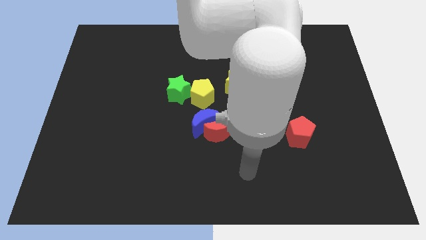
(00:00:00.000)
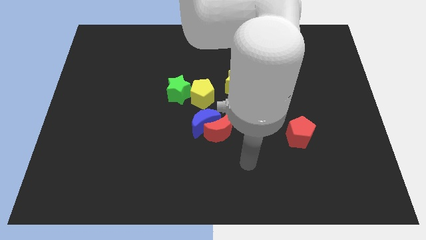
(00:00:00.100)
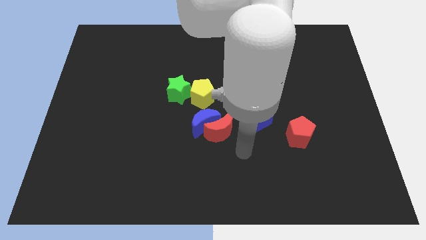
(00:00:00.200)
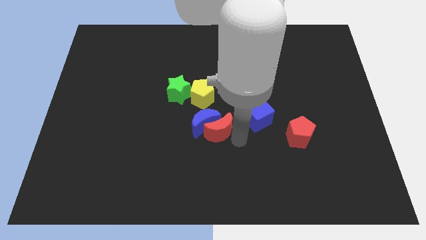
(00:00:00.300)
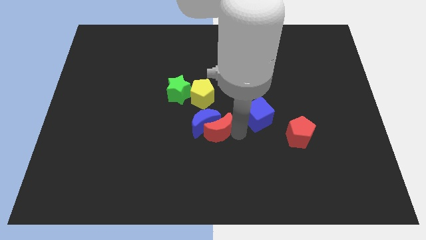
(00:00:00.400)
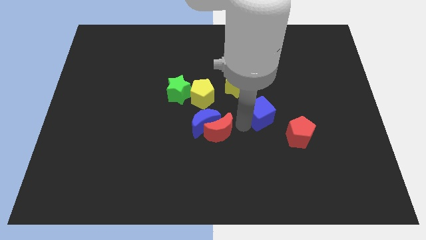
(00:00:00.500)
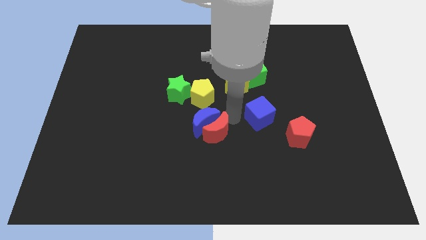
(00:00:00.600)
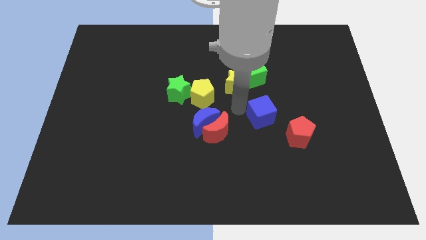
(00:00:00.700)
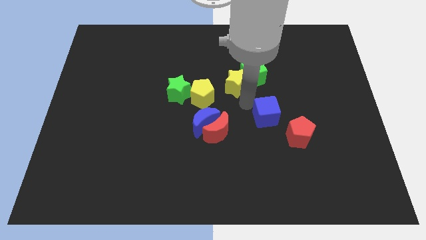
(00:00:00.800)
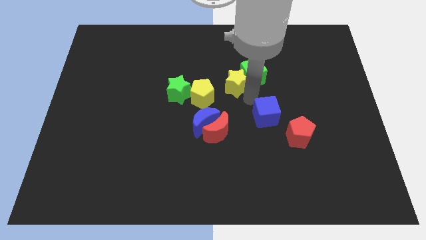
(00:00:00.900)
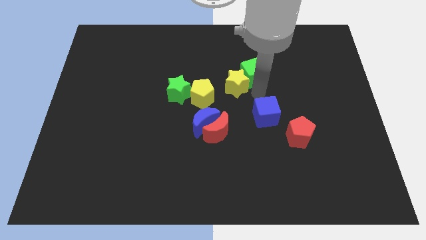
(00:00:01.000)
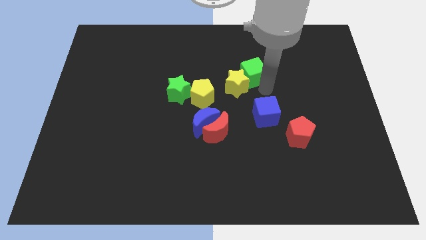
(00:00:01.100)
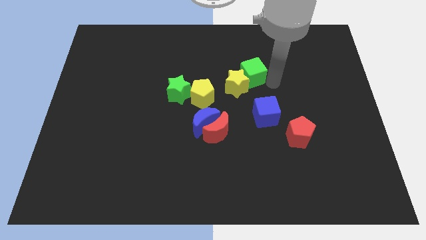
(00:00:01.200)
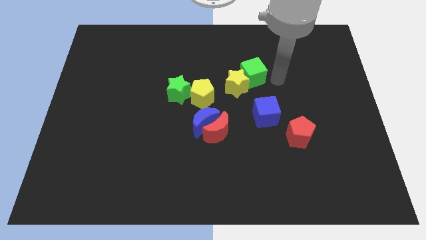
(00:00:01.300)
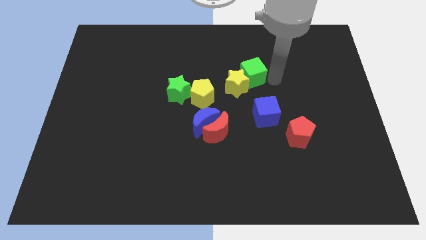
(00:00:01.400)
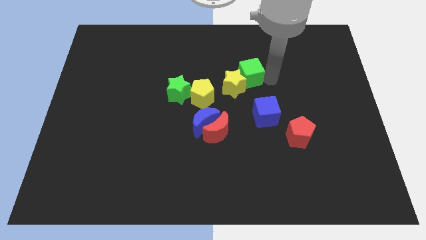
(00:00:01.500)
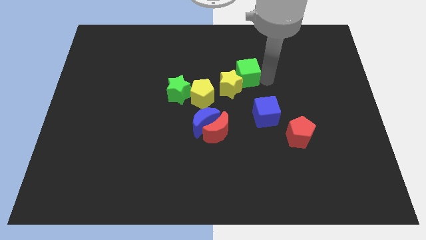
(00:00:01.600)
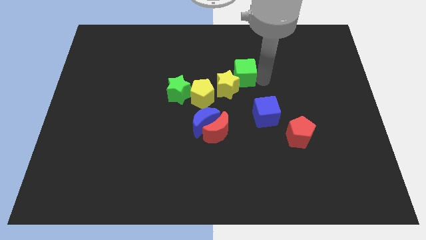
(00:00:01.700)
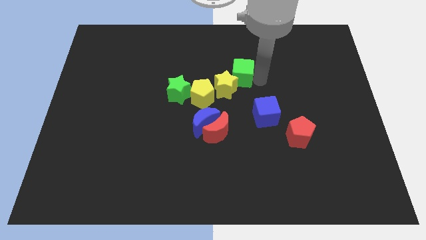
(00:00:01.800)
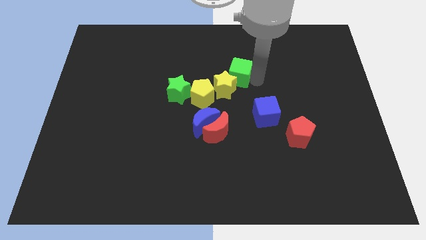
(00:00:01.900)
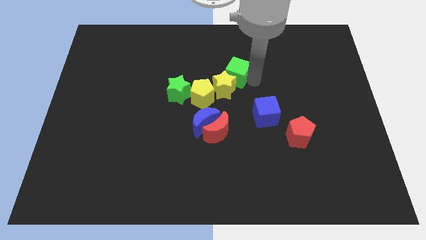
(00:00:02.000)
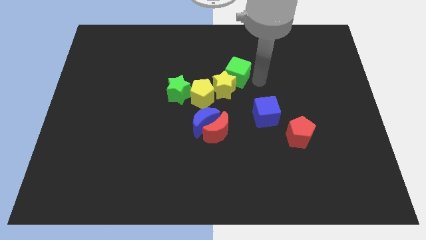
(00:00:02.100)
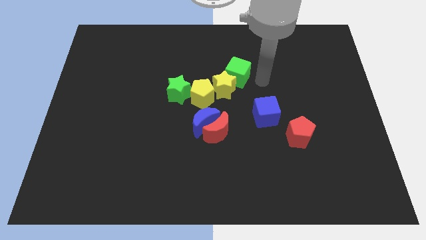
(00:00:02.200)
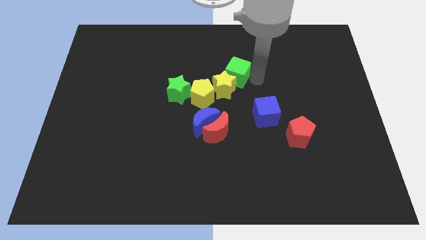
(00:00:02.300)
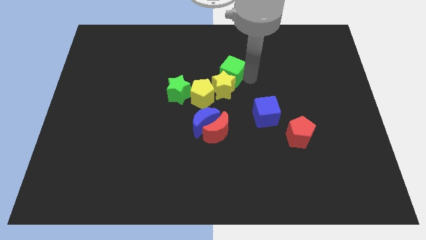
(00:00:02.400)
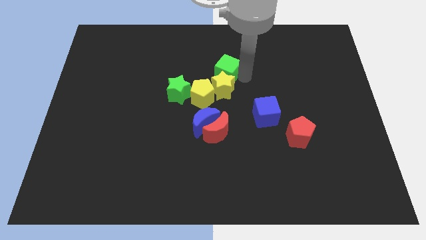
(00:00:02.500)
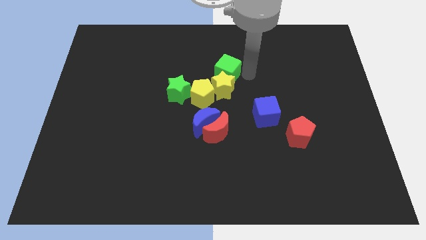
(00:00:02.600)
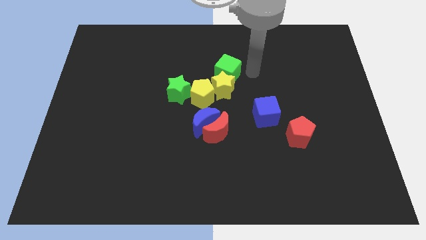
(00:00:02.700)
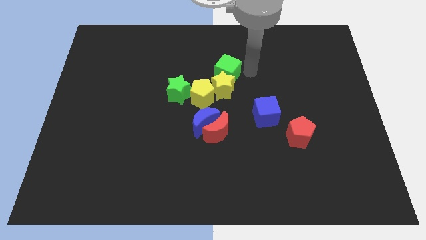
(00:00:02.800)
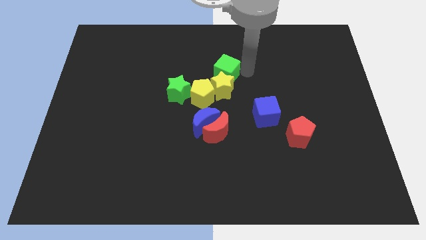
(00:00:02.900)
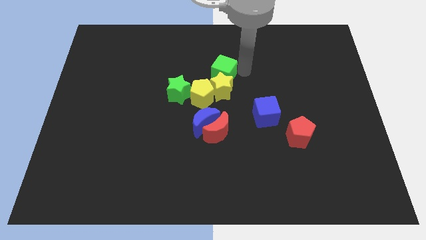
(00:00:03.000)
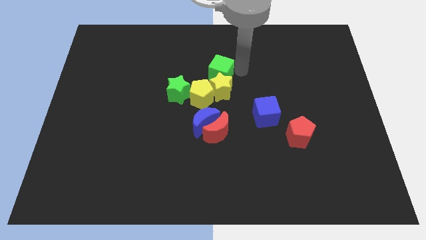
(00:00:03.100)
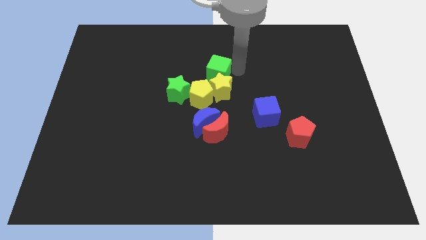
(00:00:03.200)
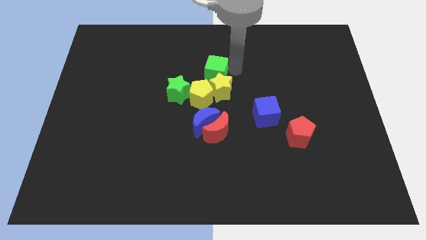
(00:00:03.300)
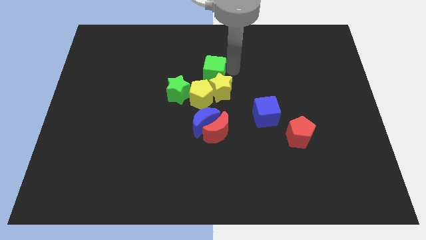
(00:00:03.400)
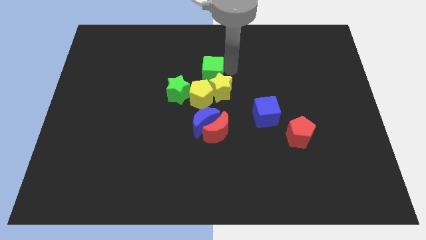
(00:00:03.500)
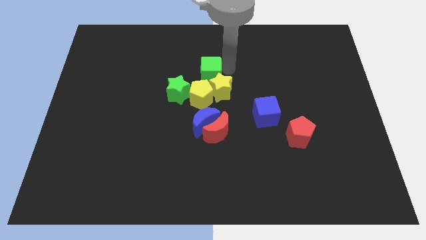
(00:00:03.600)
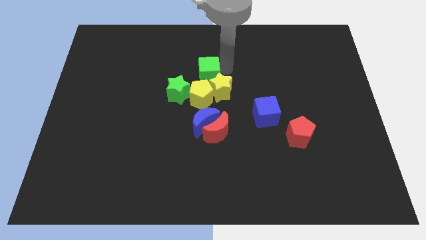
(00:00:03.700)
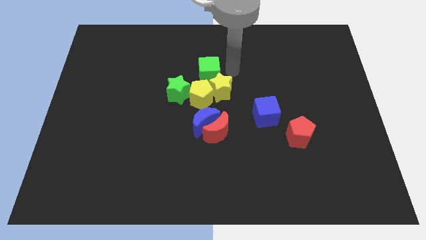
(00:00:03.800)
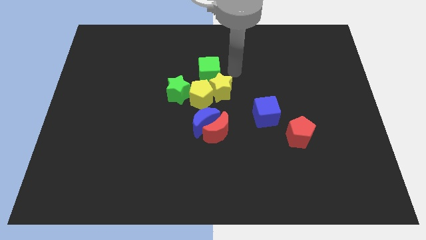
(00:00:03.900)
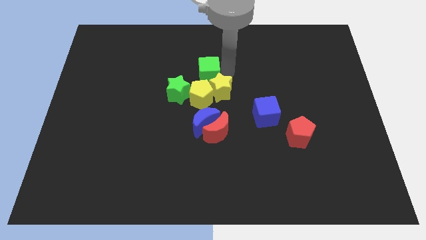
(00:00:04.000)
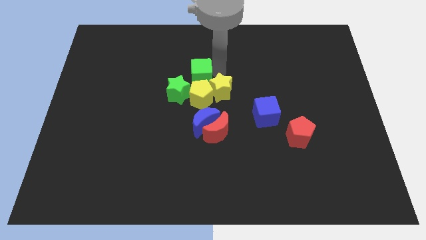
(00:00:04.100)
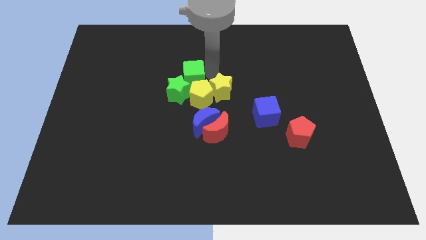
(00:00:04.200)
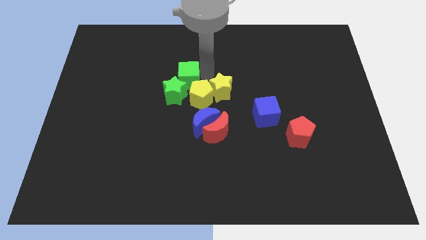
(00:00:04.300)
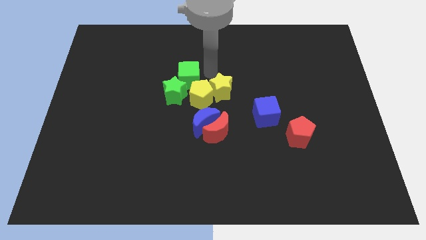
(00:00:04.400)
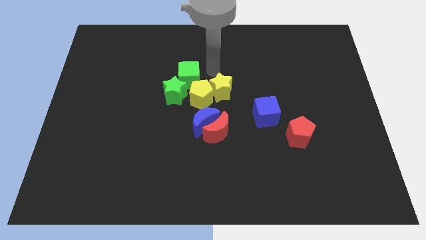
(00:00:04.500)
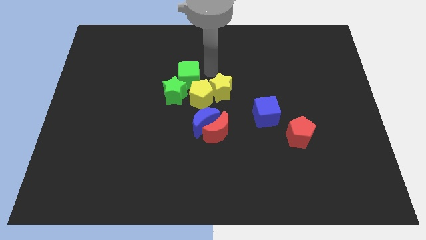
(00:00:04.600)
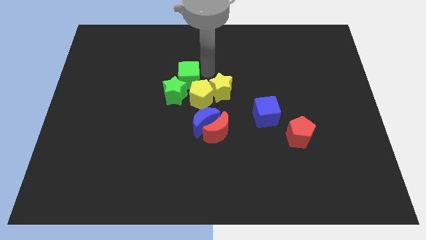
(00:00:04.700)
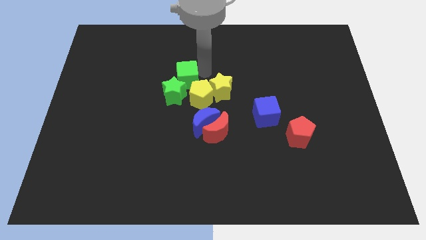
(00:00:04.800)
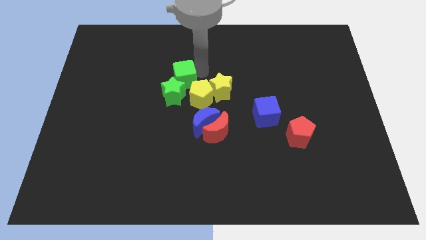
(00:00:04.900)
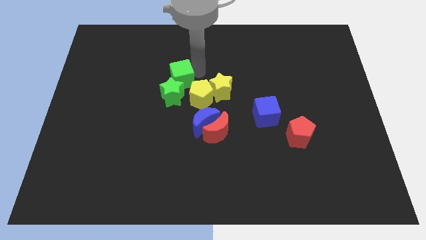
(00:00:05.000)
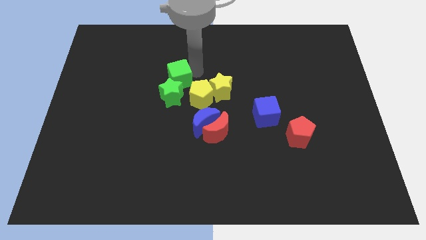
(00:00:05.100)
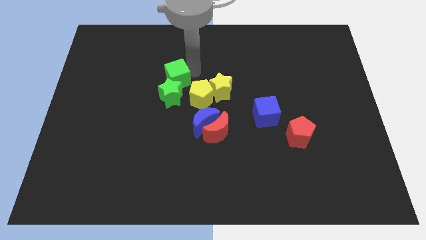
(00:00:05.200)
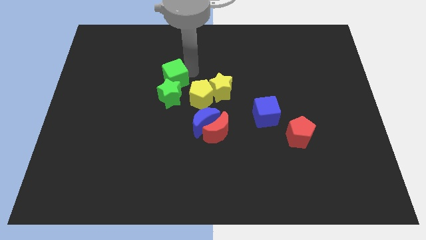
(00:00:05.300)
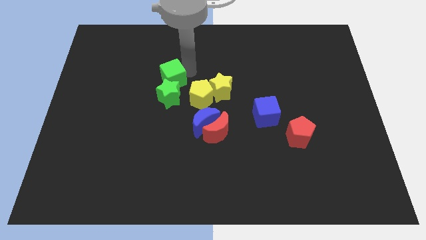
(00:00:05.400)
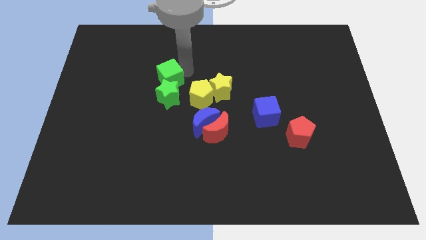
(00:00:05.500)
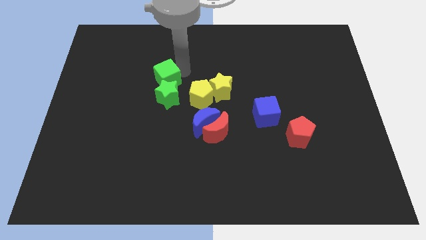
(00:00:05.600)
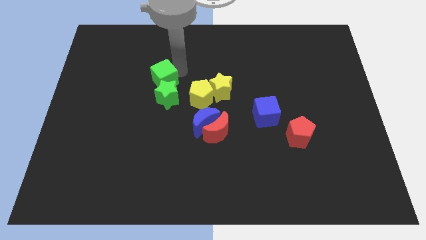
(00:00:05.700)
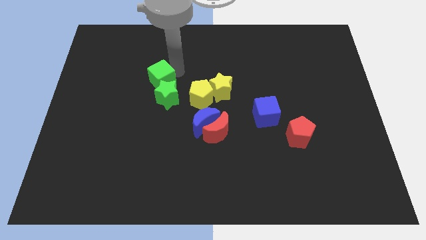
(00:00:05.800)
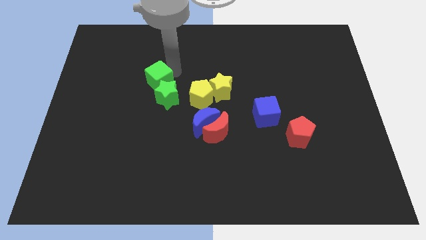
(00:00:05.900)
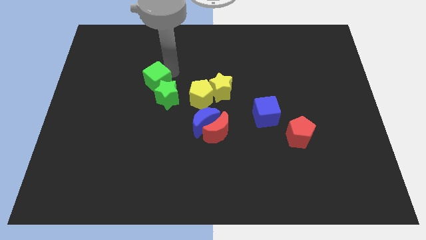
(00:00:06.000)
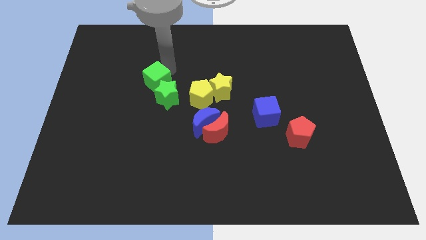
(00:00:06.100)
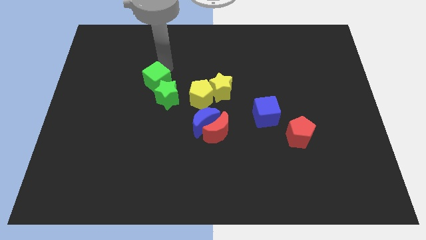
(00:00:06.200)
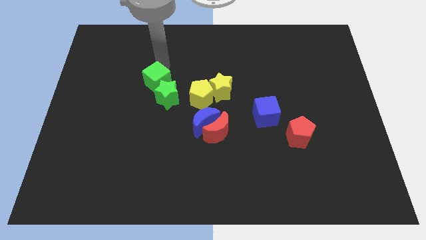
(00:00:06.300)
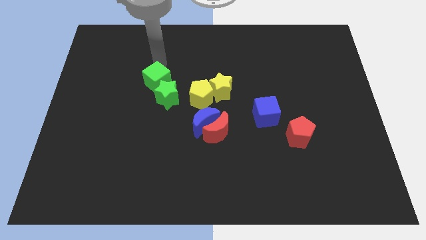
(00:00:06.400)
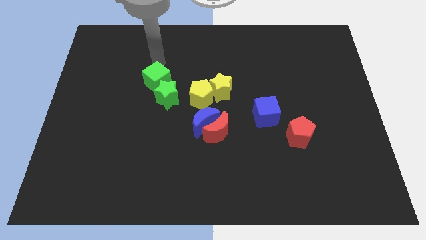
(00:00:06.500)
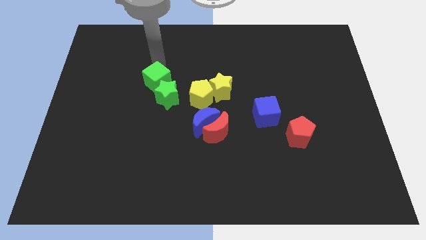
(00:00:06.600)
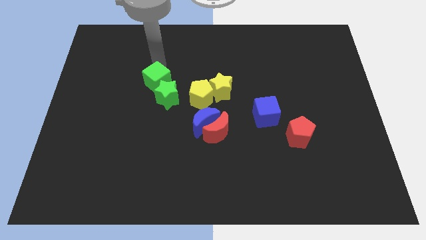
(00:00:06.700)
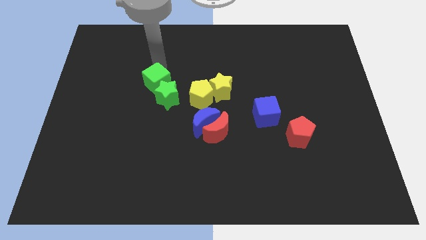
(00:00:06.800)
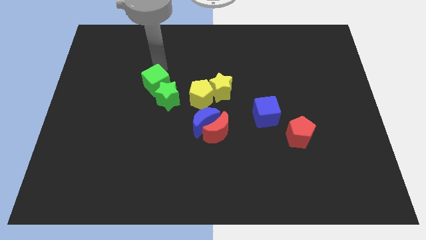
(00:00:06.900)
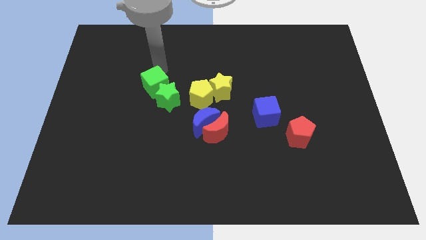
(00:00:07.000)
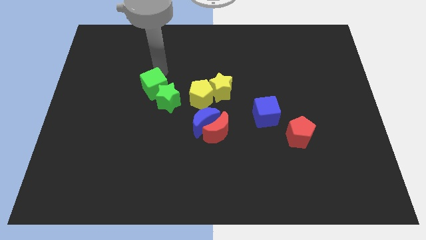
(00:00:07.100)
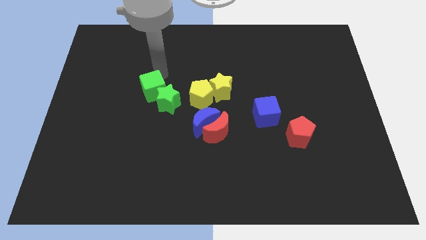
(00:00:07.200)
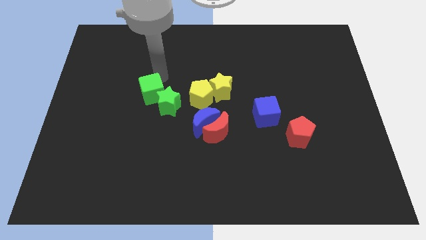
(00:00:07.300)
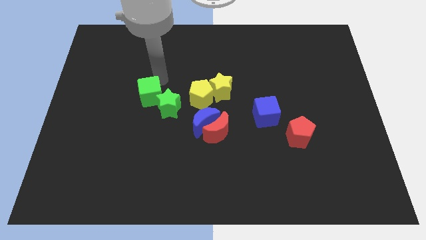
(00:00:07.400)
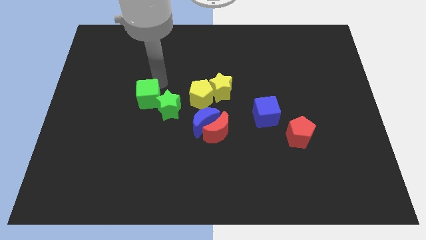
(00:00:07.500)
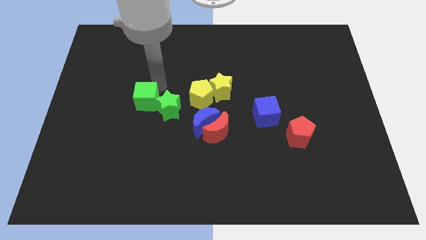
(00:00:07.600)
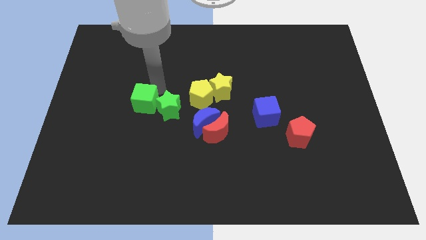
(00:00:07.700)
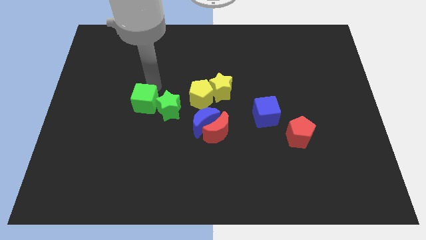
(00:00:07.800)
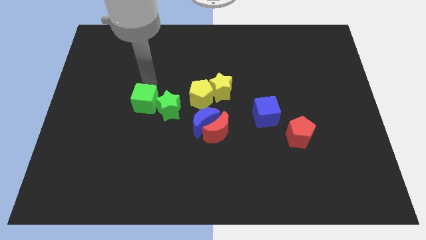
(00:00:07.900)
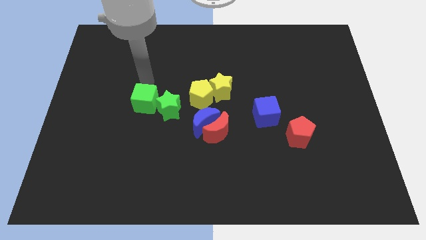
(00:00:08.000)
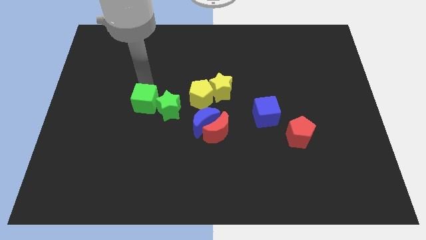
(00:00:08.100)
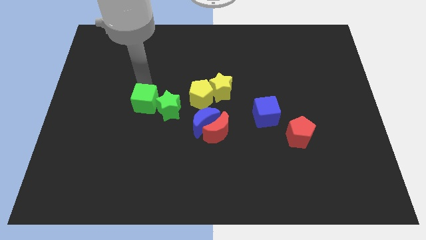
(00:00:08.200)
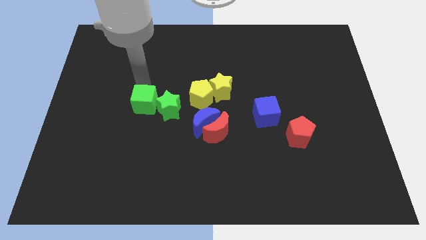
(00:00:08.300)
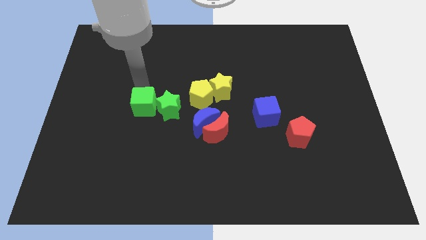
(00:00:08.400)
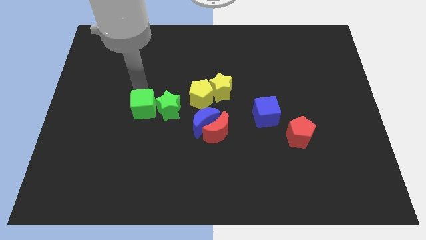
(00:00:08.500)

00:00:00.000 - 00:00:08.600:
push the green cube to the bottom left side of the green star
